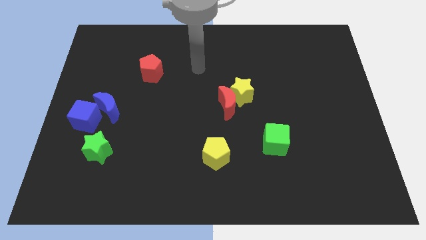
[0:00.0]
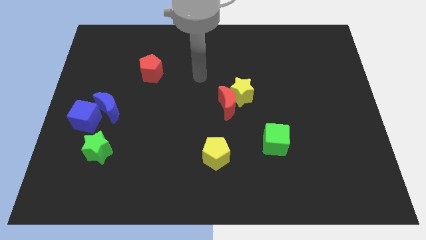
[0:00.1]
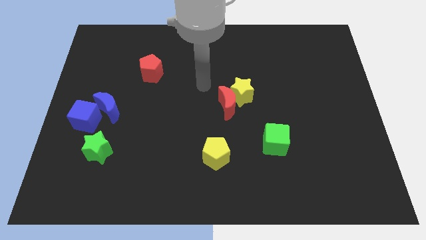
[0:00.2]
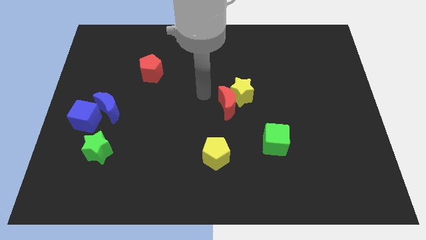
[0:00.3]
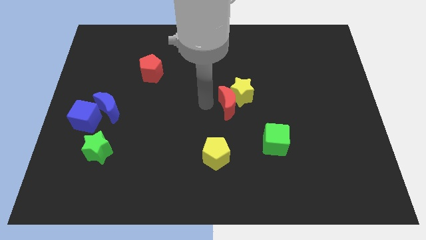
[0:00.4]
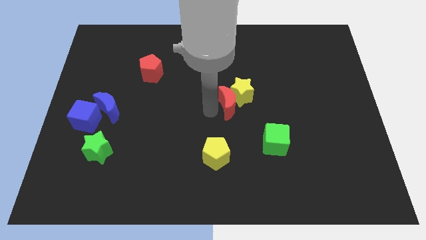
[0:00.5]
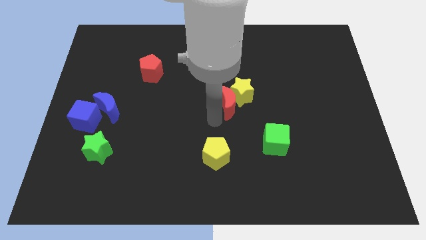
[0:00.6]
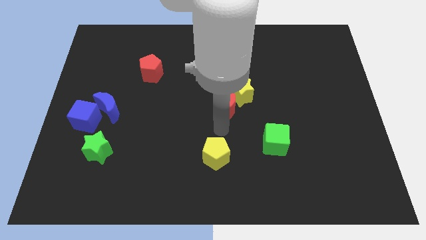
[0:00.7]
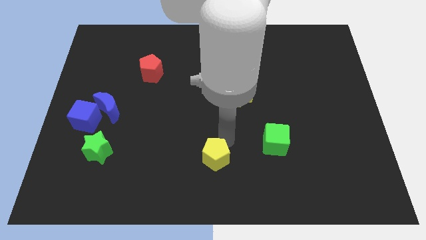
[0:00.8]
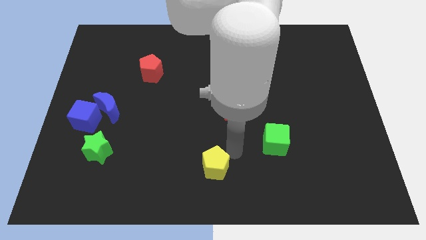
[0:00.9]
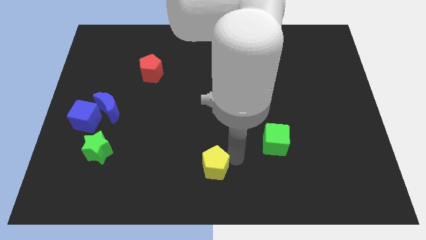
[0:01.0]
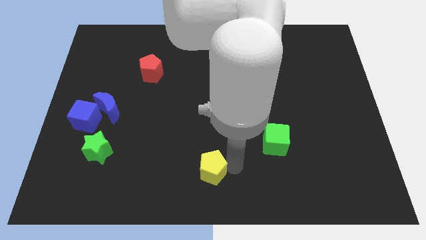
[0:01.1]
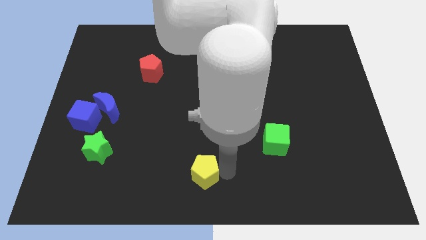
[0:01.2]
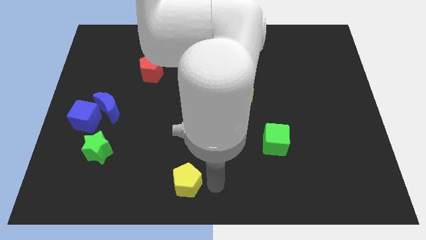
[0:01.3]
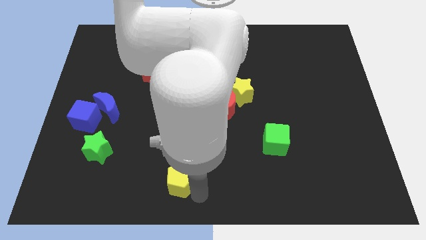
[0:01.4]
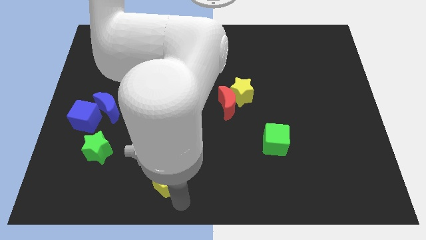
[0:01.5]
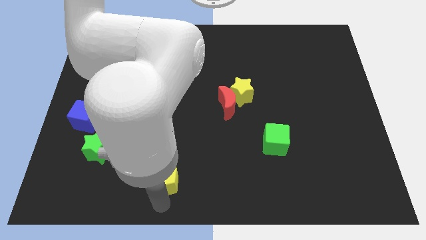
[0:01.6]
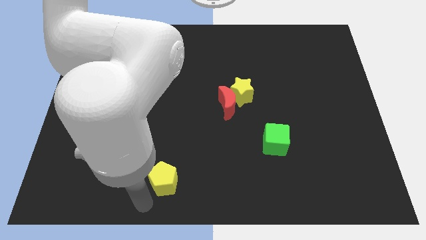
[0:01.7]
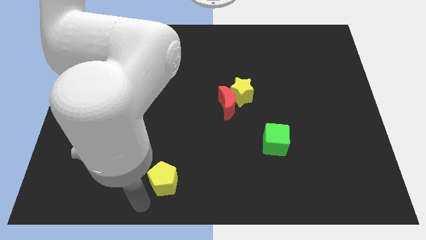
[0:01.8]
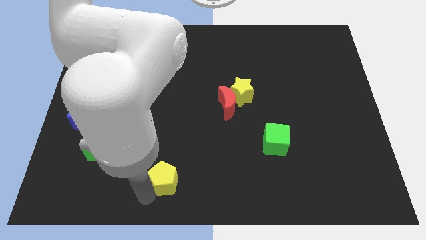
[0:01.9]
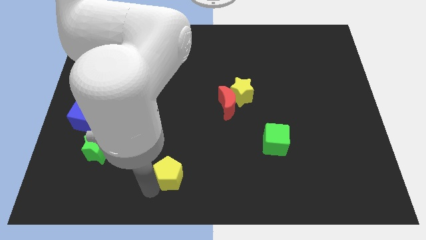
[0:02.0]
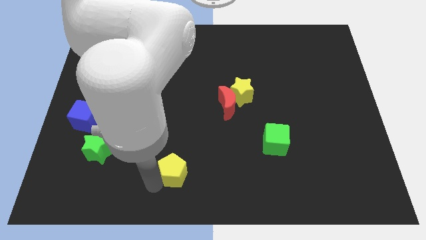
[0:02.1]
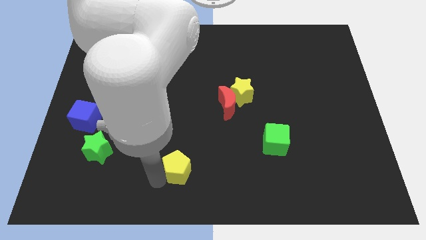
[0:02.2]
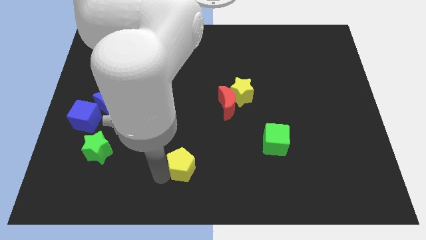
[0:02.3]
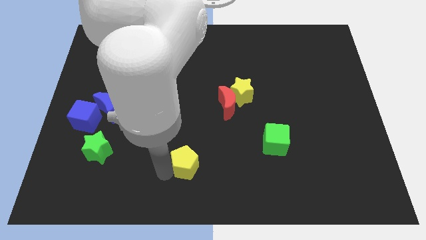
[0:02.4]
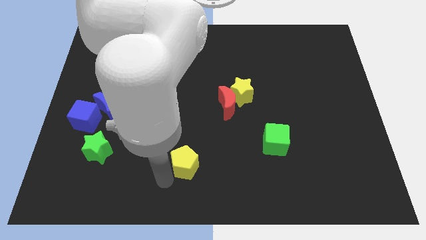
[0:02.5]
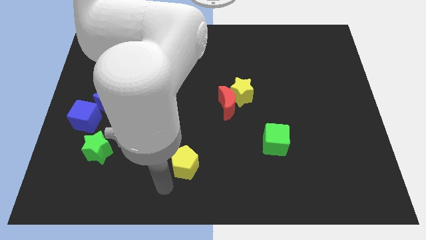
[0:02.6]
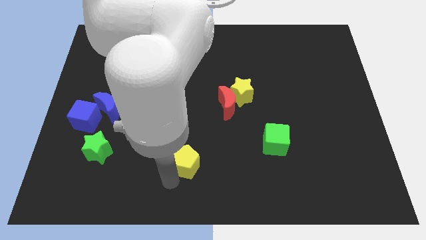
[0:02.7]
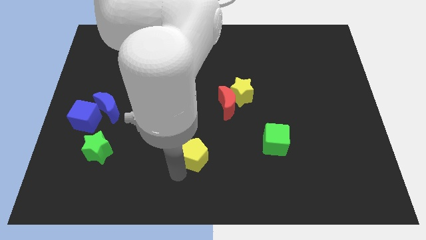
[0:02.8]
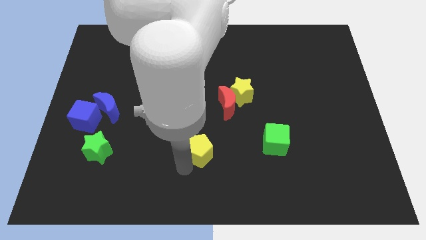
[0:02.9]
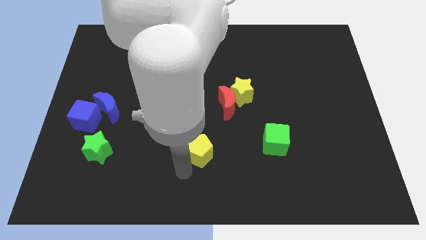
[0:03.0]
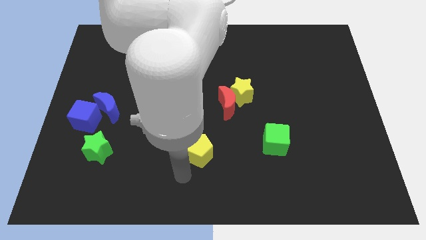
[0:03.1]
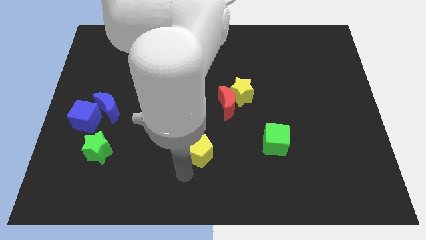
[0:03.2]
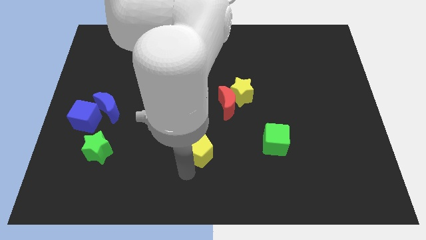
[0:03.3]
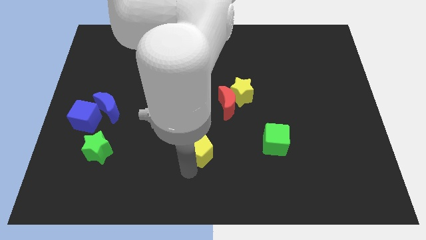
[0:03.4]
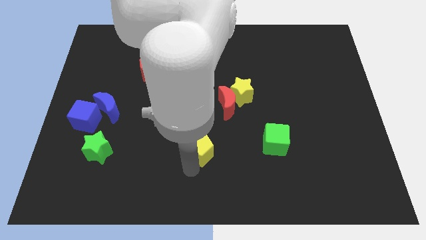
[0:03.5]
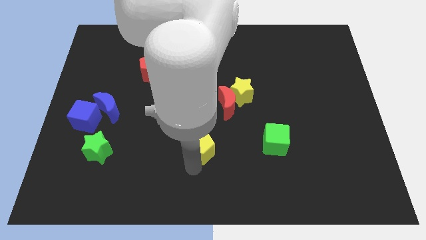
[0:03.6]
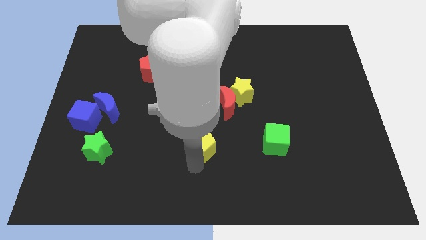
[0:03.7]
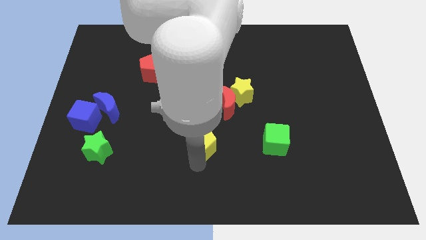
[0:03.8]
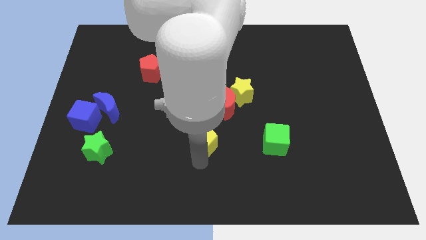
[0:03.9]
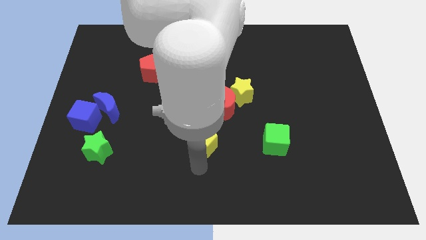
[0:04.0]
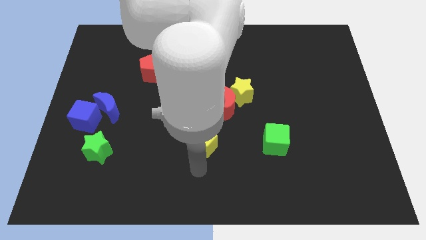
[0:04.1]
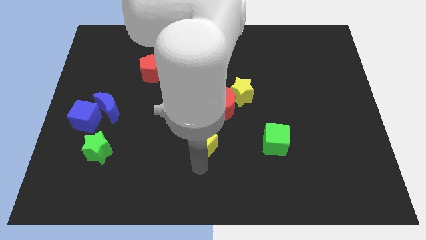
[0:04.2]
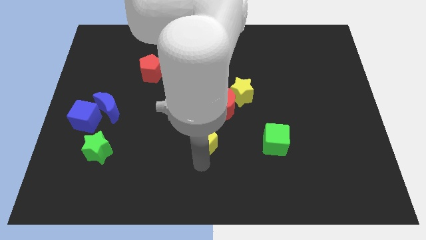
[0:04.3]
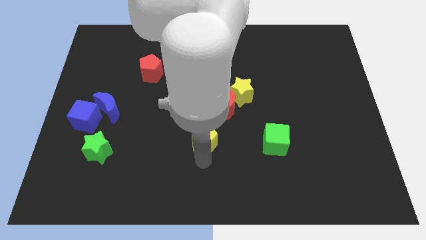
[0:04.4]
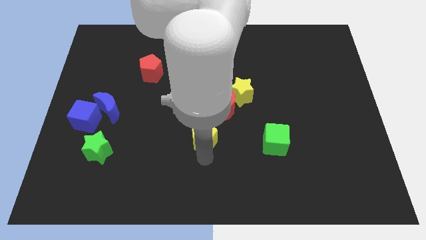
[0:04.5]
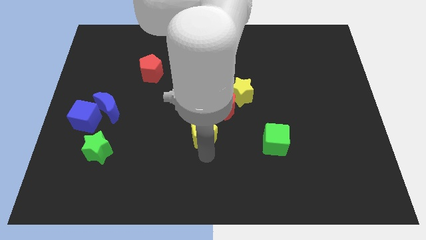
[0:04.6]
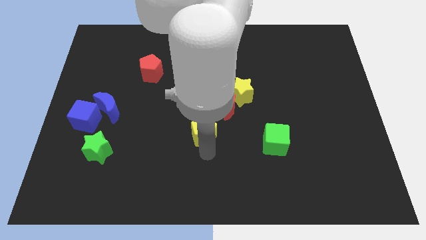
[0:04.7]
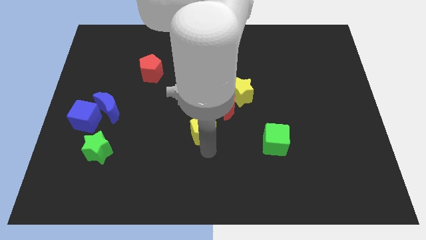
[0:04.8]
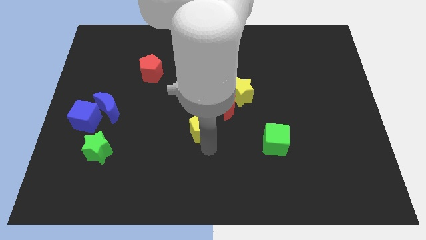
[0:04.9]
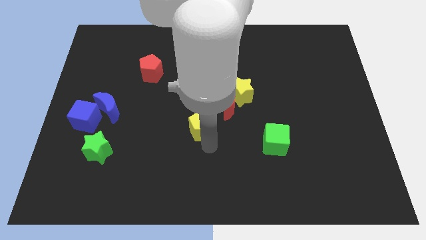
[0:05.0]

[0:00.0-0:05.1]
move the yellow pentagon slightly up

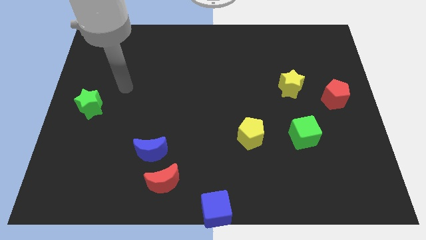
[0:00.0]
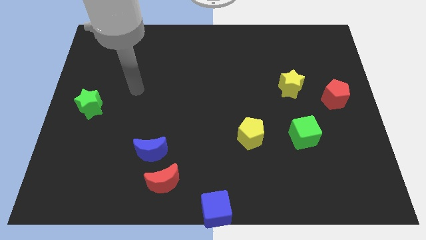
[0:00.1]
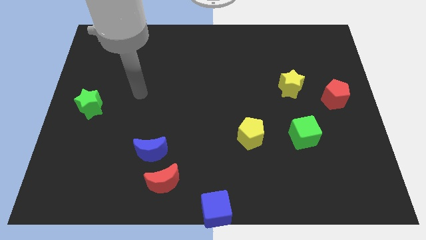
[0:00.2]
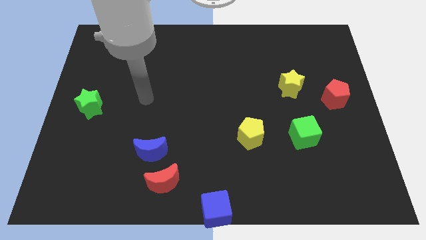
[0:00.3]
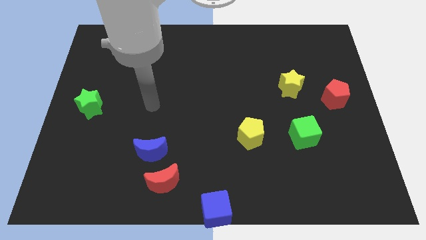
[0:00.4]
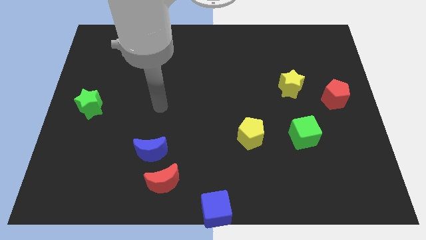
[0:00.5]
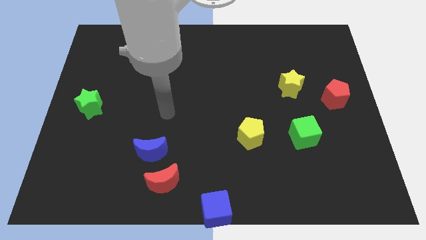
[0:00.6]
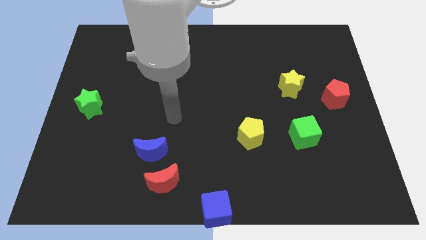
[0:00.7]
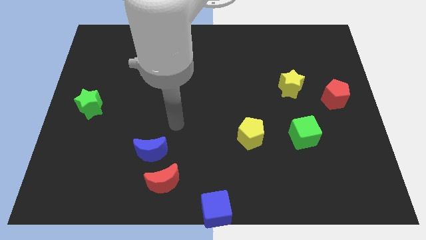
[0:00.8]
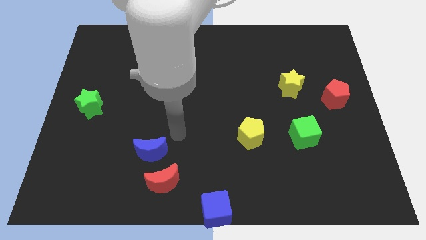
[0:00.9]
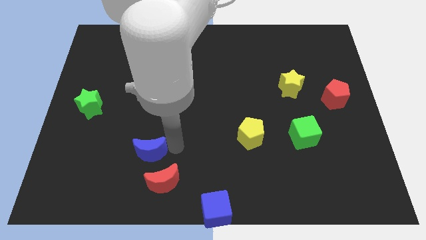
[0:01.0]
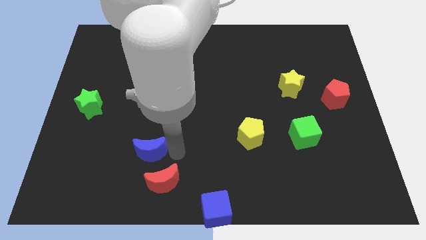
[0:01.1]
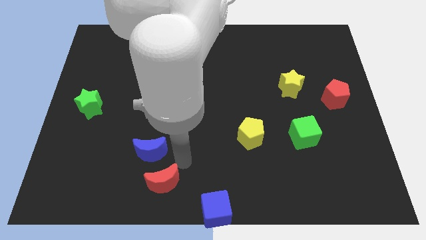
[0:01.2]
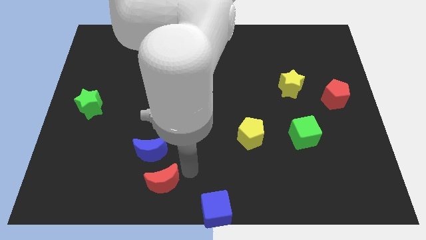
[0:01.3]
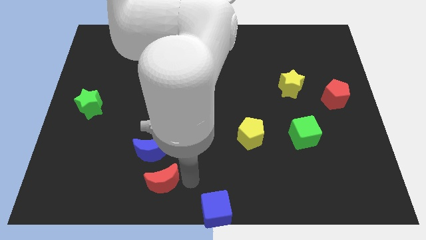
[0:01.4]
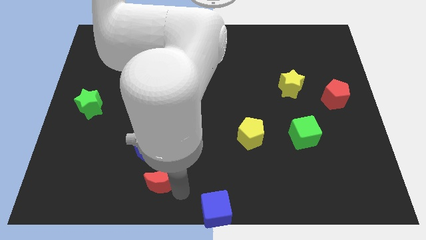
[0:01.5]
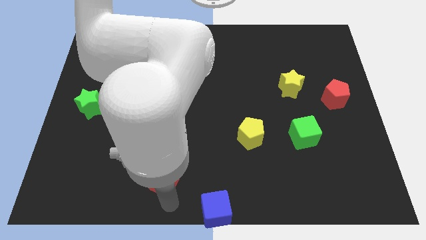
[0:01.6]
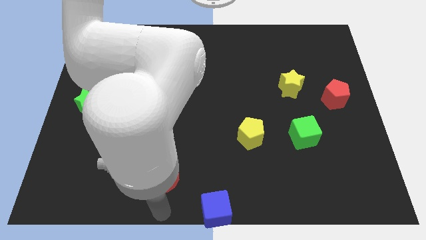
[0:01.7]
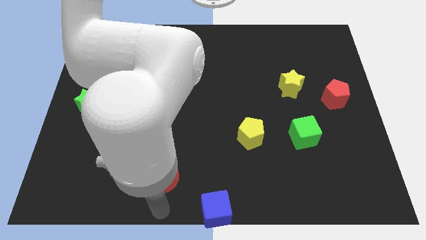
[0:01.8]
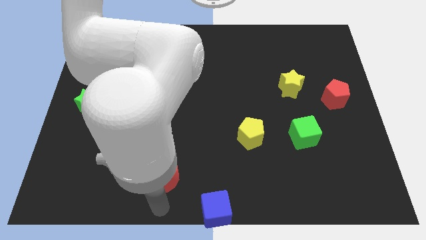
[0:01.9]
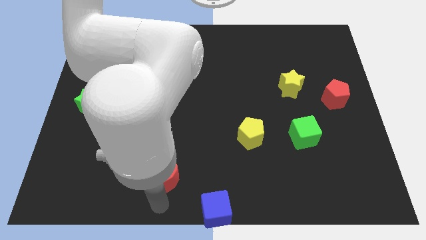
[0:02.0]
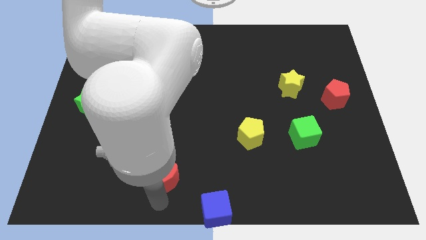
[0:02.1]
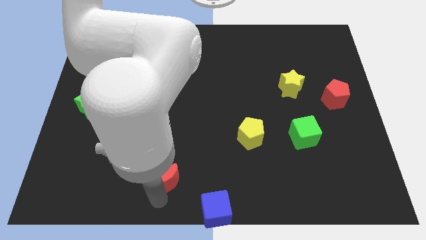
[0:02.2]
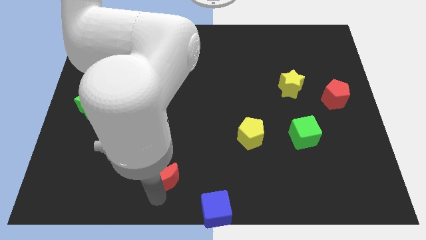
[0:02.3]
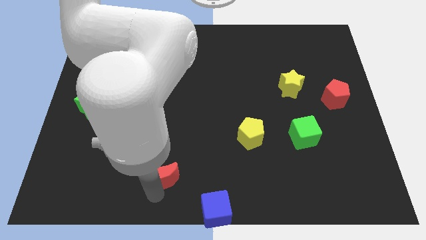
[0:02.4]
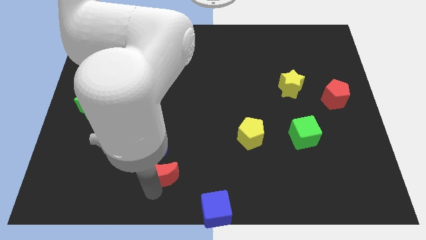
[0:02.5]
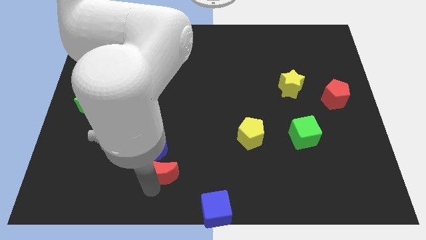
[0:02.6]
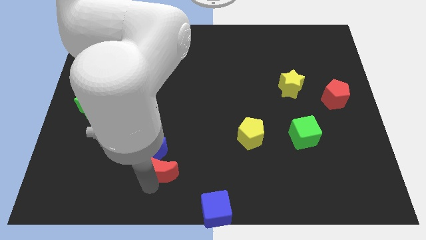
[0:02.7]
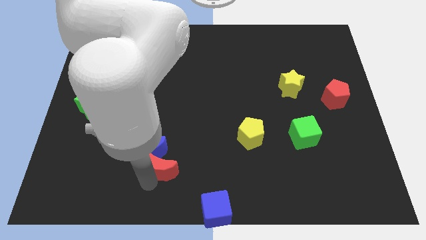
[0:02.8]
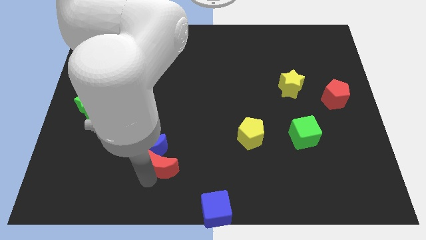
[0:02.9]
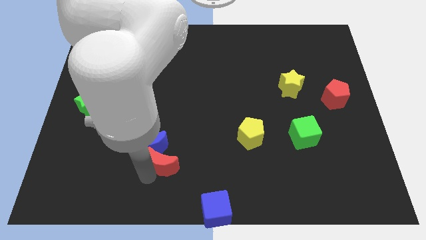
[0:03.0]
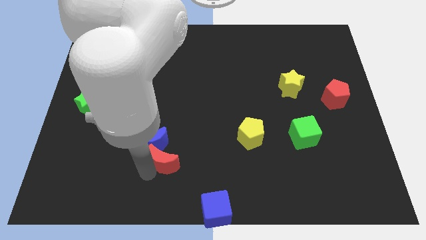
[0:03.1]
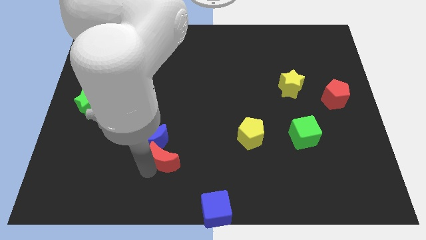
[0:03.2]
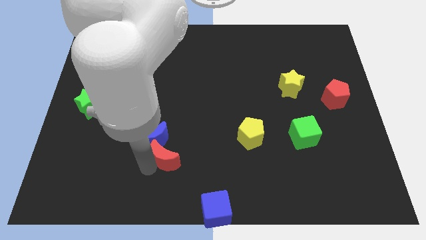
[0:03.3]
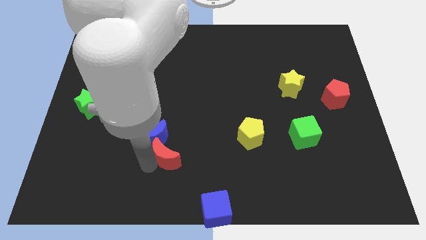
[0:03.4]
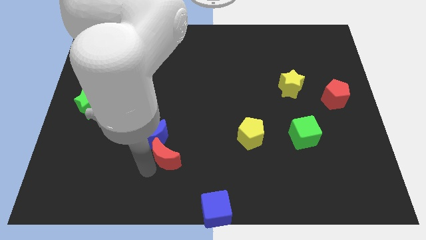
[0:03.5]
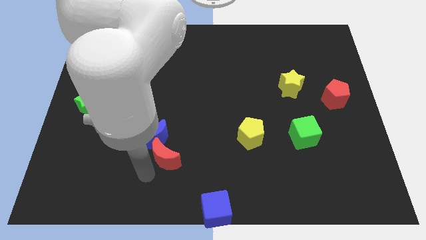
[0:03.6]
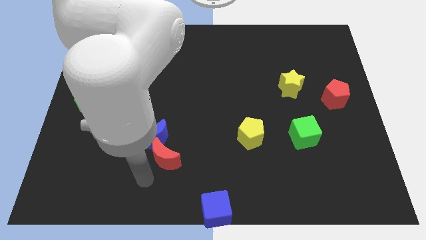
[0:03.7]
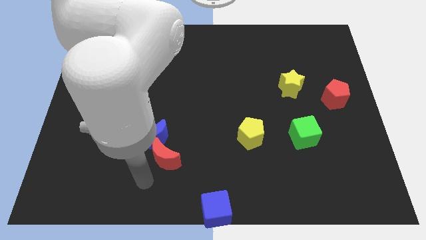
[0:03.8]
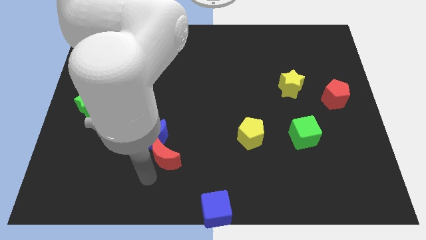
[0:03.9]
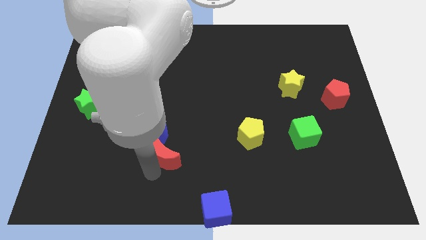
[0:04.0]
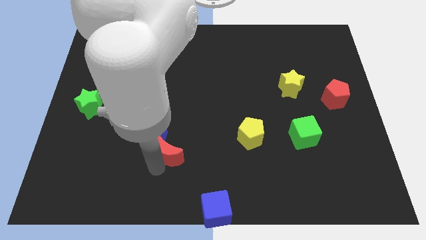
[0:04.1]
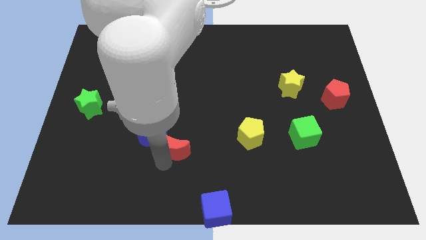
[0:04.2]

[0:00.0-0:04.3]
move the red moon a little bit up
